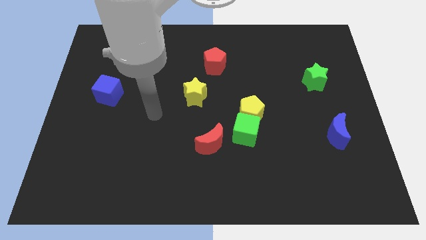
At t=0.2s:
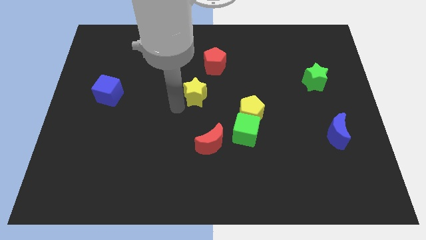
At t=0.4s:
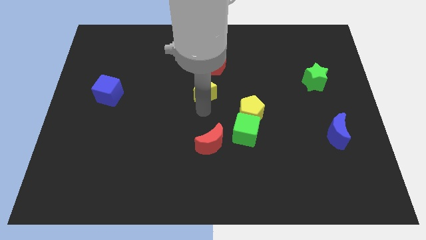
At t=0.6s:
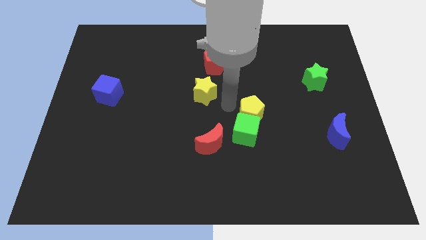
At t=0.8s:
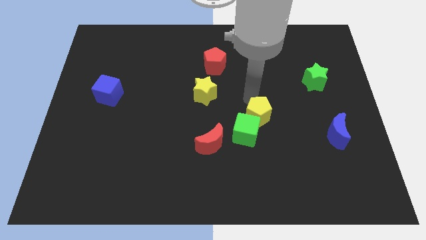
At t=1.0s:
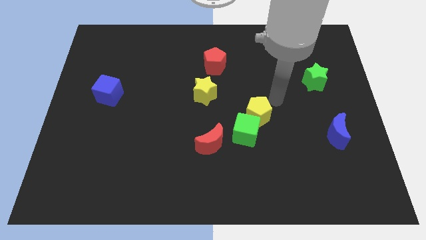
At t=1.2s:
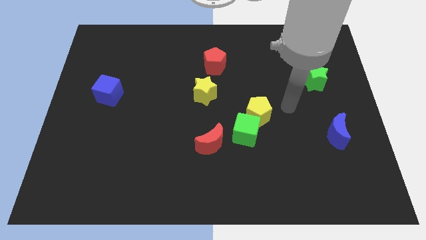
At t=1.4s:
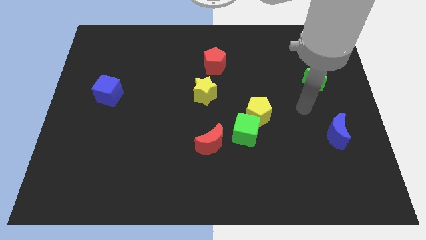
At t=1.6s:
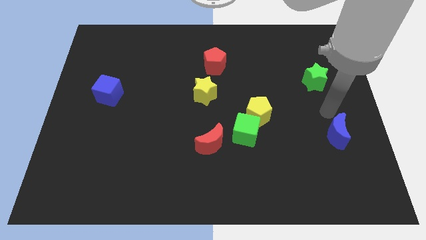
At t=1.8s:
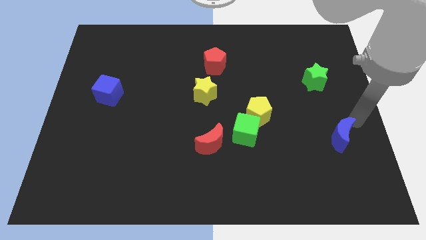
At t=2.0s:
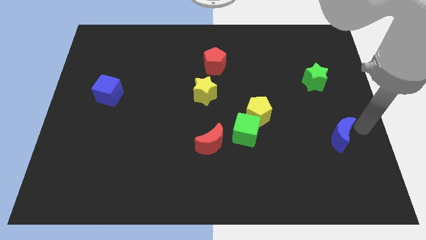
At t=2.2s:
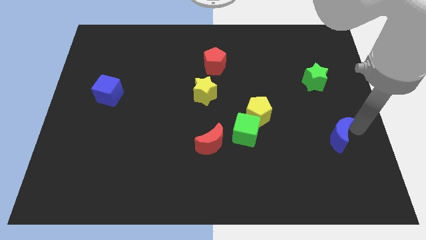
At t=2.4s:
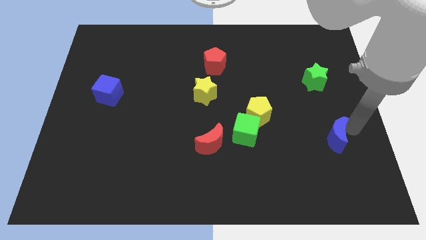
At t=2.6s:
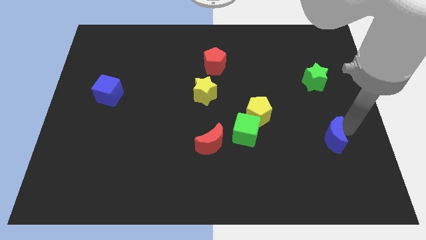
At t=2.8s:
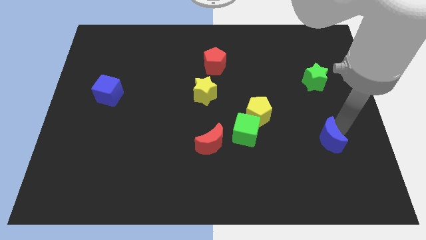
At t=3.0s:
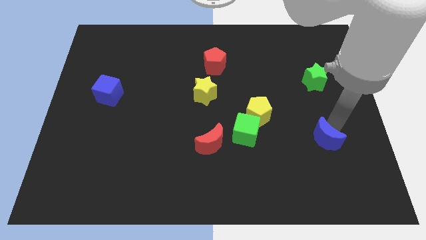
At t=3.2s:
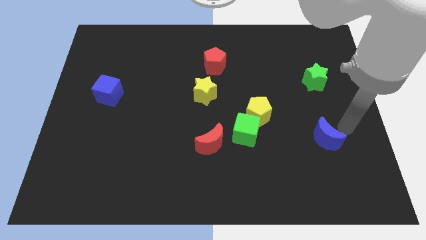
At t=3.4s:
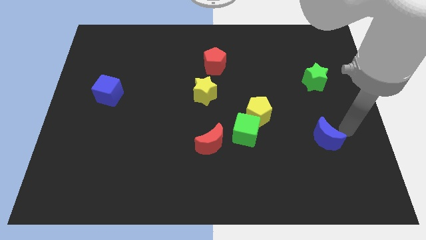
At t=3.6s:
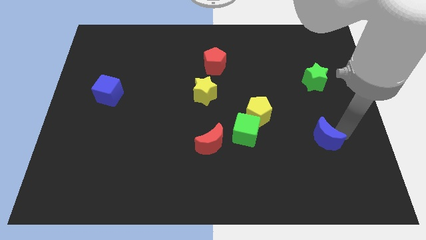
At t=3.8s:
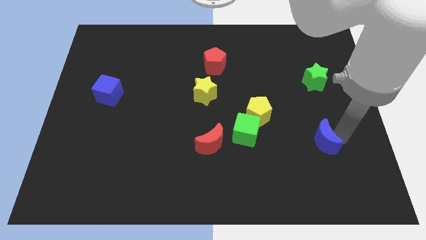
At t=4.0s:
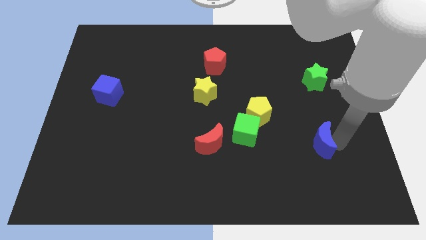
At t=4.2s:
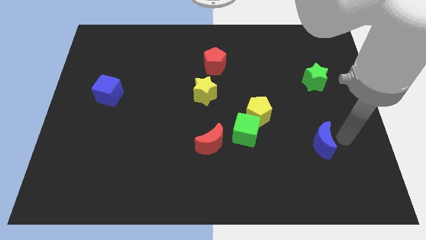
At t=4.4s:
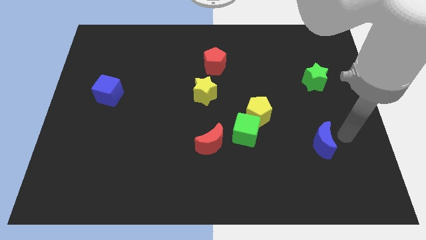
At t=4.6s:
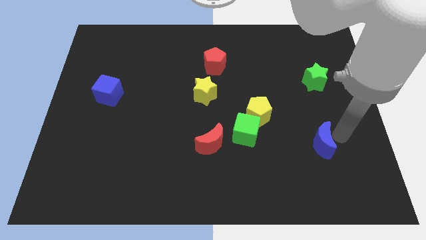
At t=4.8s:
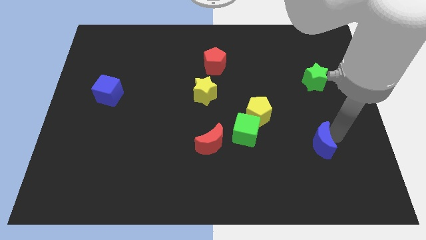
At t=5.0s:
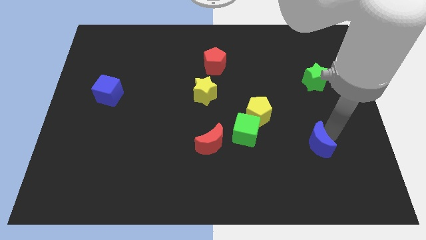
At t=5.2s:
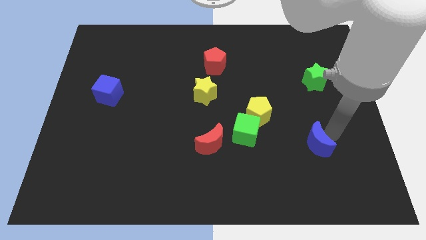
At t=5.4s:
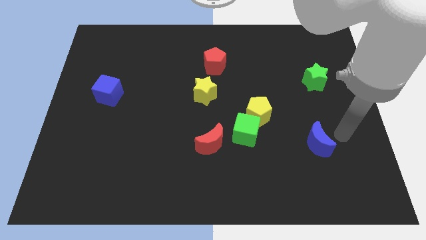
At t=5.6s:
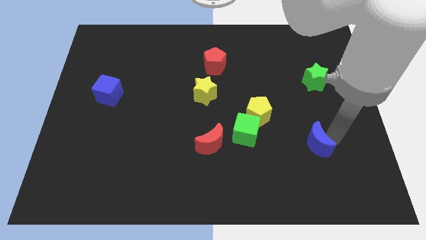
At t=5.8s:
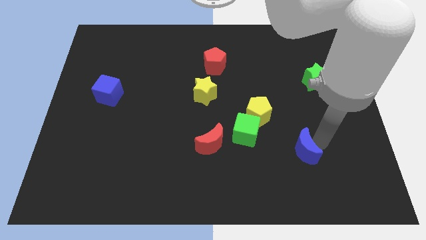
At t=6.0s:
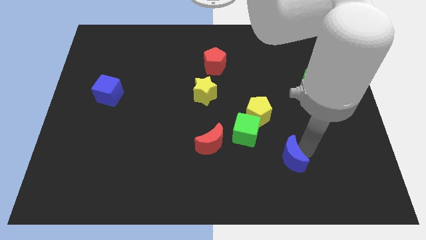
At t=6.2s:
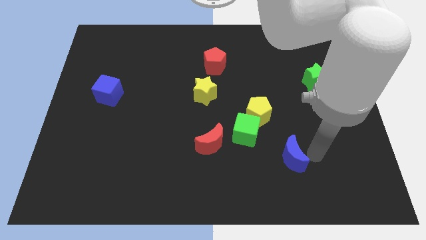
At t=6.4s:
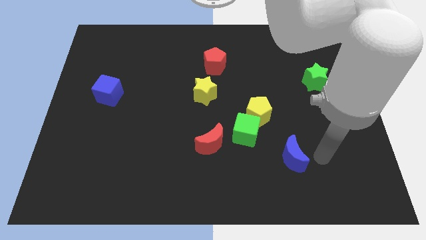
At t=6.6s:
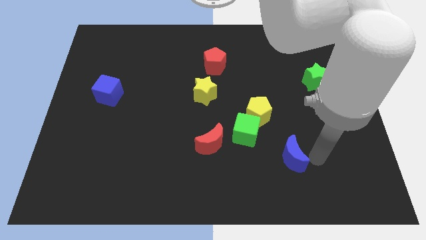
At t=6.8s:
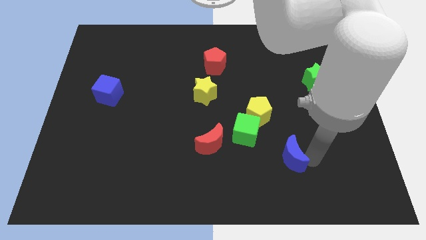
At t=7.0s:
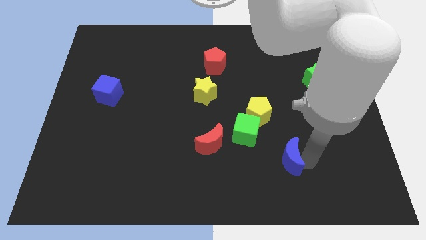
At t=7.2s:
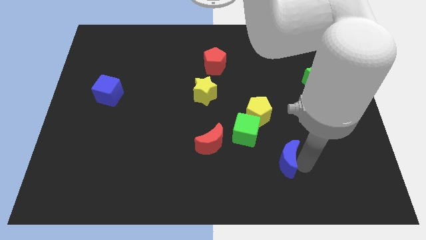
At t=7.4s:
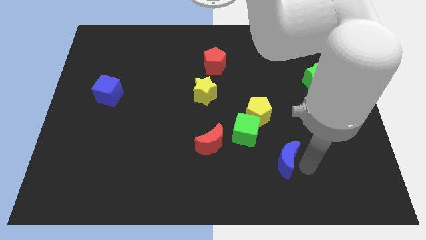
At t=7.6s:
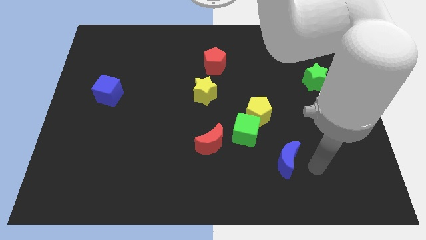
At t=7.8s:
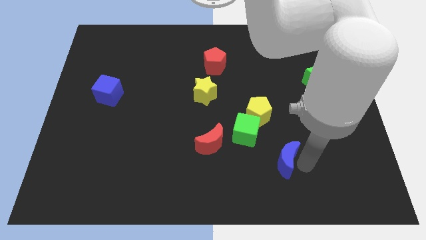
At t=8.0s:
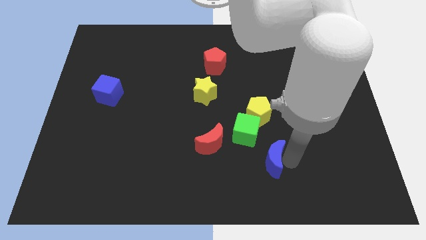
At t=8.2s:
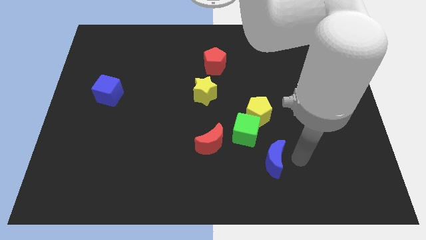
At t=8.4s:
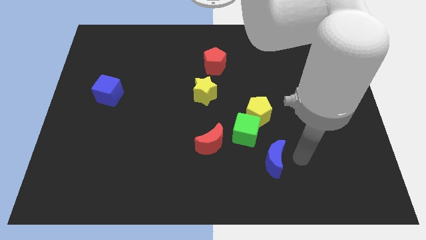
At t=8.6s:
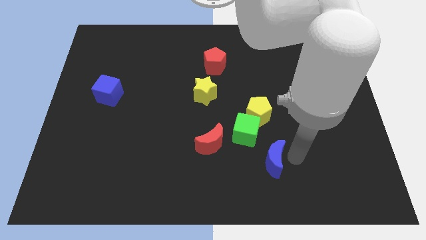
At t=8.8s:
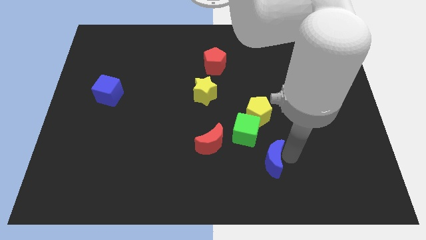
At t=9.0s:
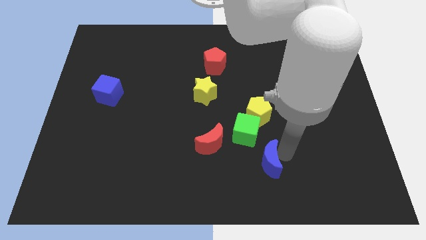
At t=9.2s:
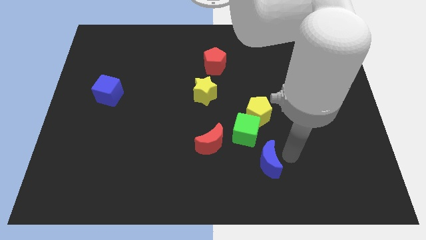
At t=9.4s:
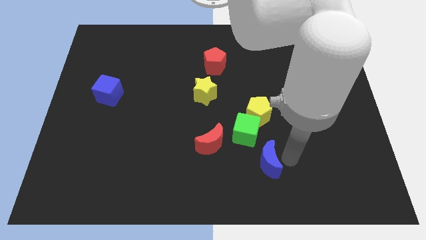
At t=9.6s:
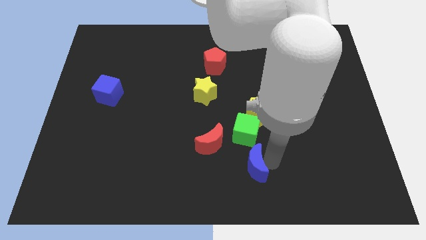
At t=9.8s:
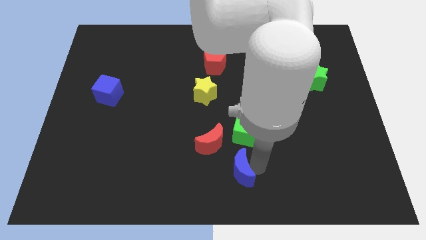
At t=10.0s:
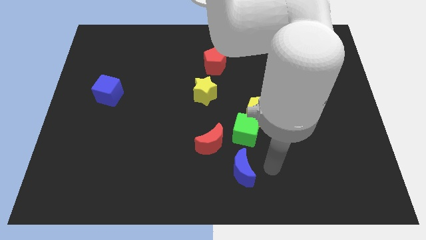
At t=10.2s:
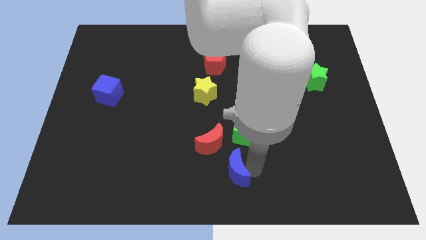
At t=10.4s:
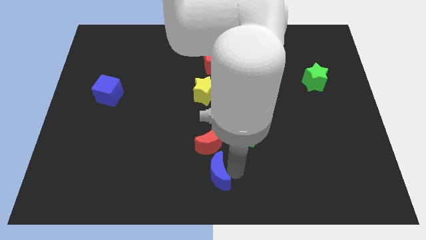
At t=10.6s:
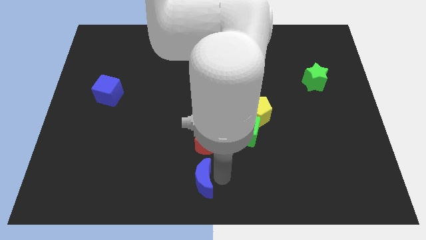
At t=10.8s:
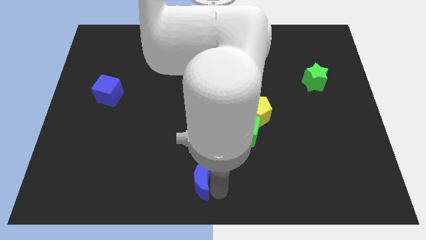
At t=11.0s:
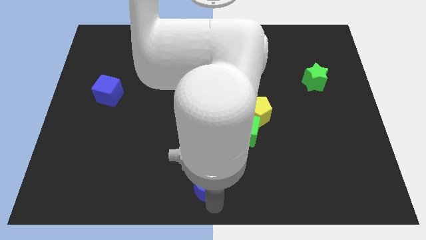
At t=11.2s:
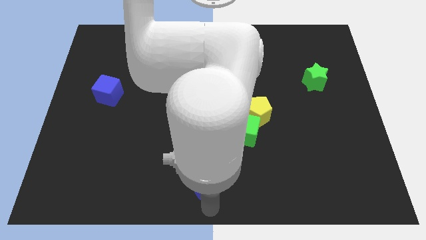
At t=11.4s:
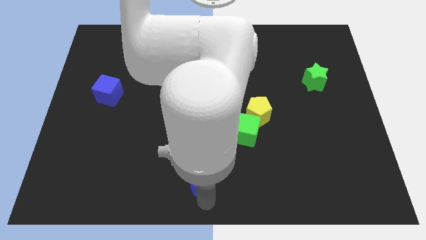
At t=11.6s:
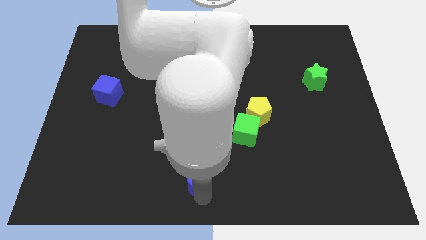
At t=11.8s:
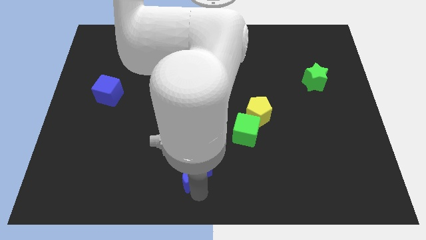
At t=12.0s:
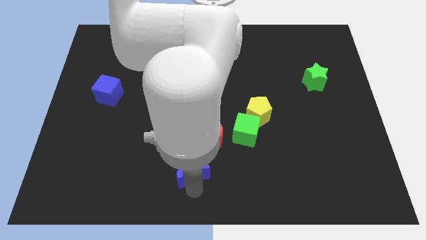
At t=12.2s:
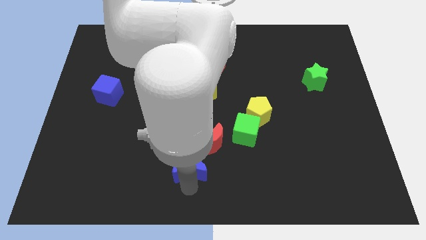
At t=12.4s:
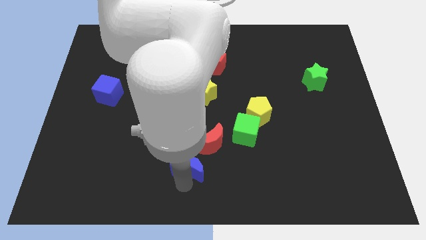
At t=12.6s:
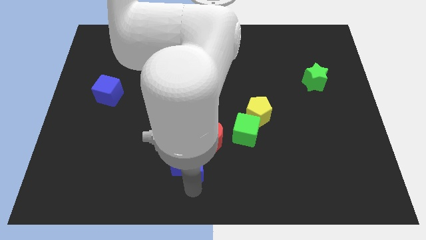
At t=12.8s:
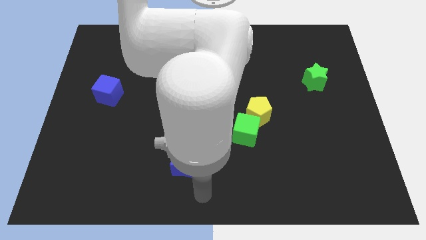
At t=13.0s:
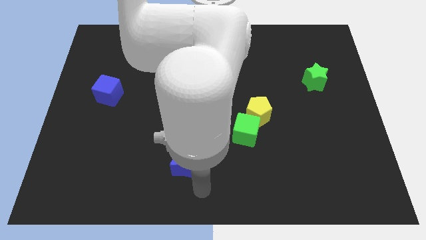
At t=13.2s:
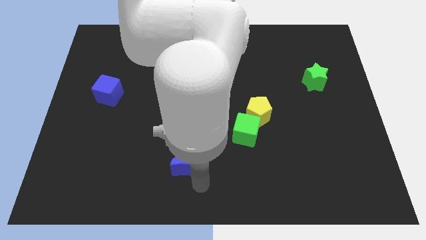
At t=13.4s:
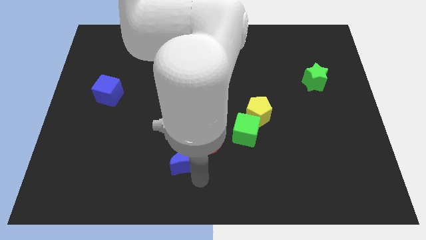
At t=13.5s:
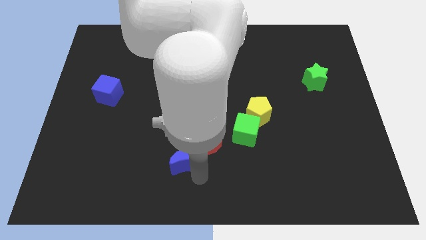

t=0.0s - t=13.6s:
slide the blue moon just left of the red moon
